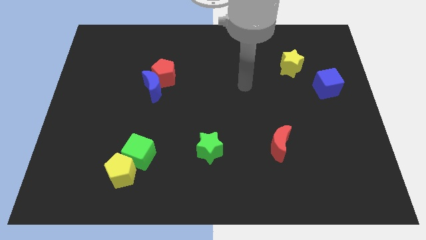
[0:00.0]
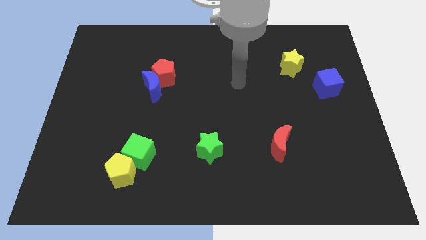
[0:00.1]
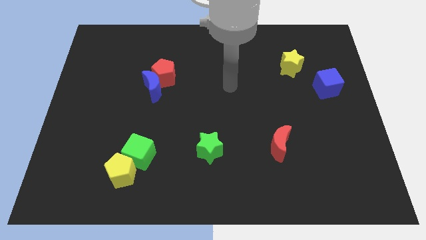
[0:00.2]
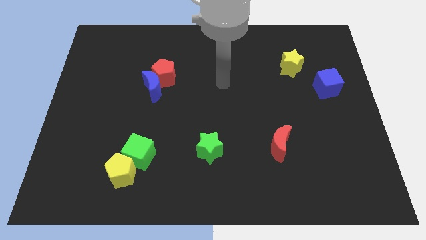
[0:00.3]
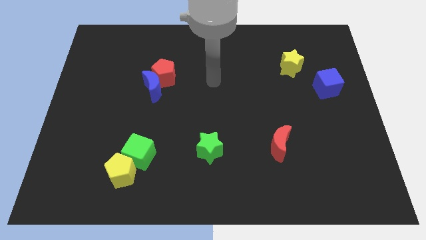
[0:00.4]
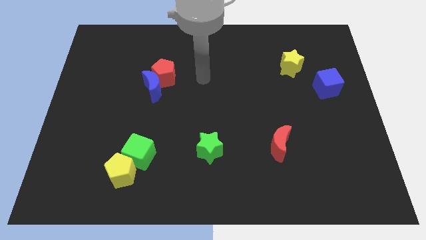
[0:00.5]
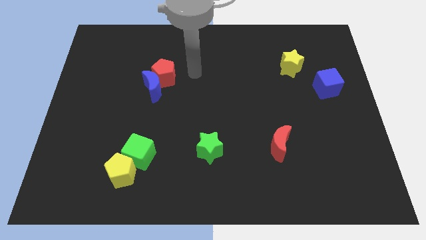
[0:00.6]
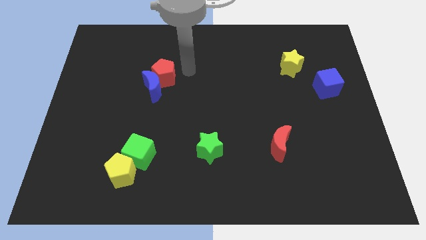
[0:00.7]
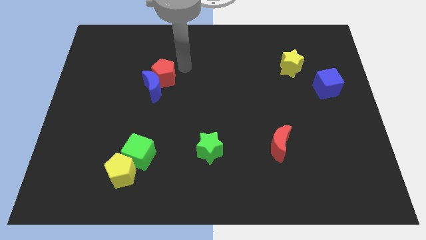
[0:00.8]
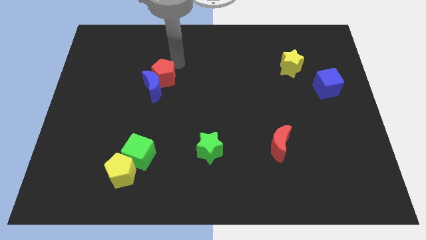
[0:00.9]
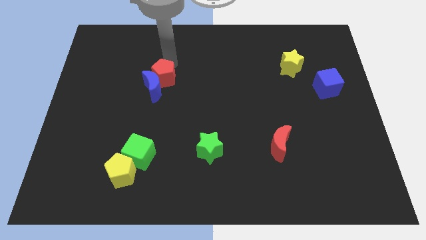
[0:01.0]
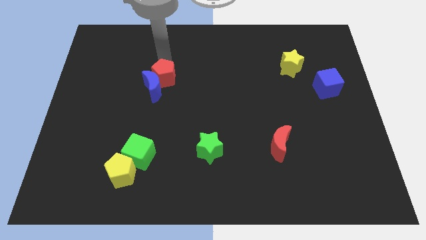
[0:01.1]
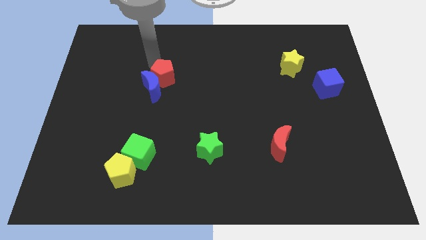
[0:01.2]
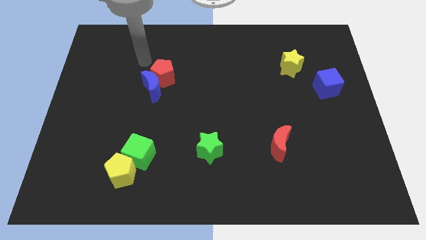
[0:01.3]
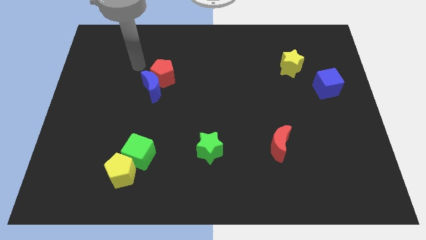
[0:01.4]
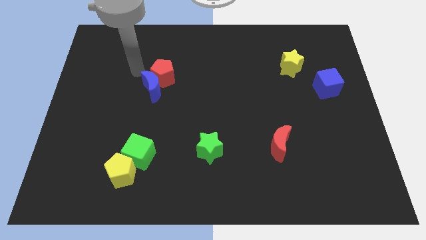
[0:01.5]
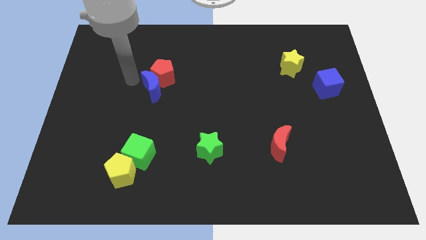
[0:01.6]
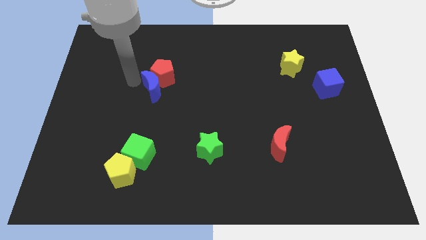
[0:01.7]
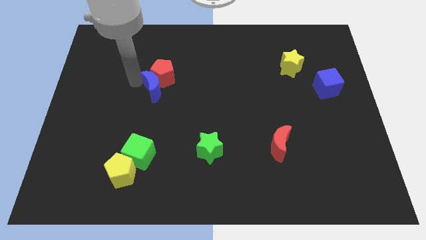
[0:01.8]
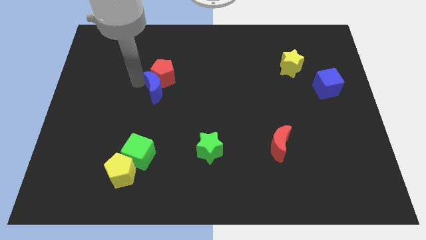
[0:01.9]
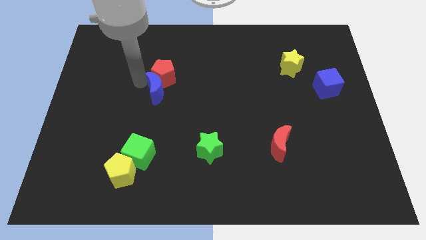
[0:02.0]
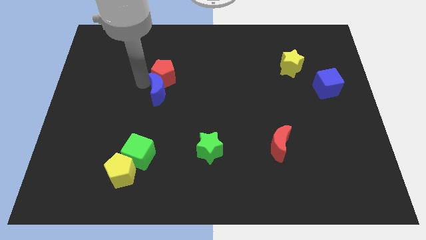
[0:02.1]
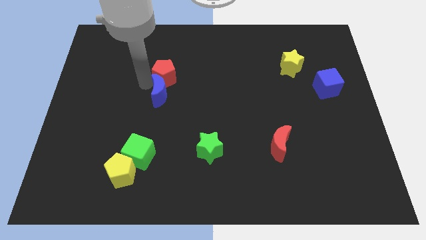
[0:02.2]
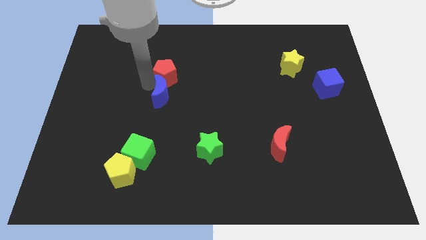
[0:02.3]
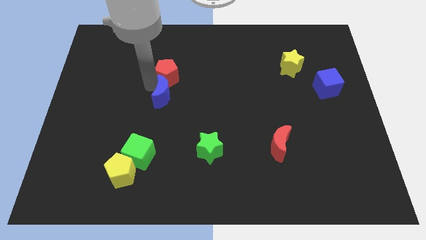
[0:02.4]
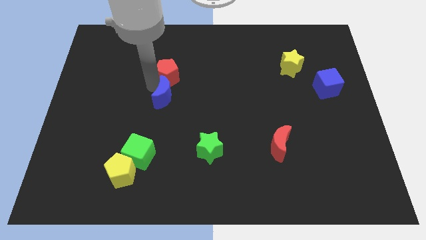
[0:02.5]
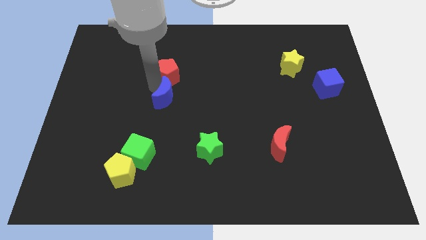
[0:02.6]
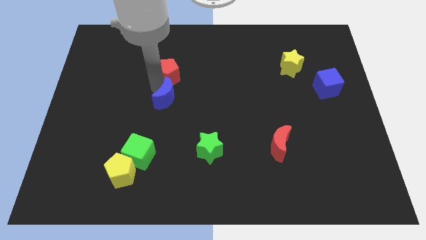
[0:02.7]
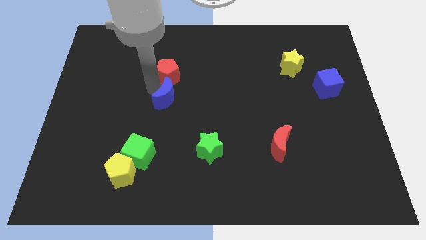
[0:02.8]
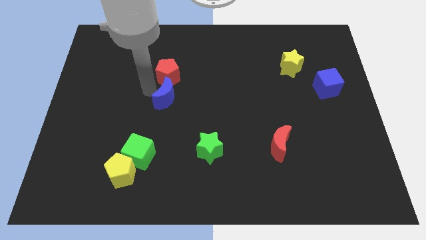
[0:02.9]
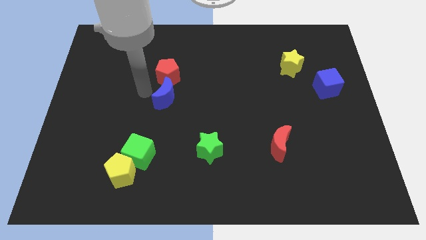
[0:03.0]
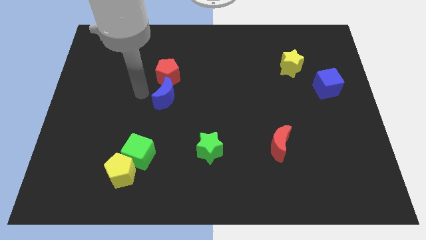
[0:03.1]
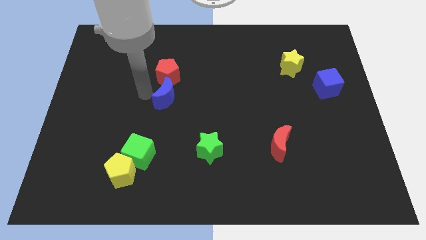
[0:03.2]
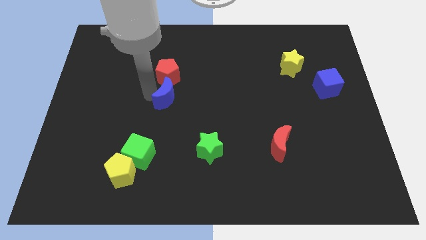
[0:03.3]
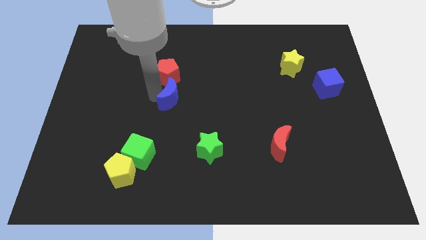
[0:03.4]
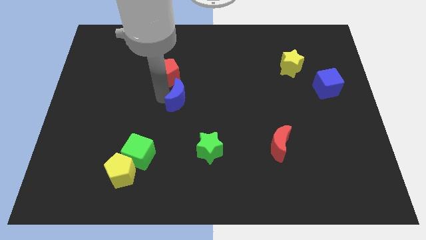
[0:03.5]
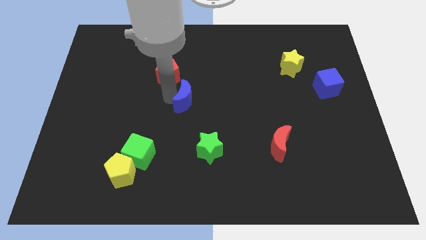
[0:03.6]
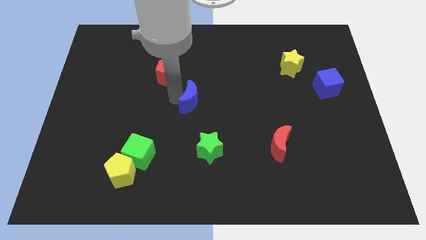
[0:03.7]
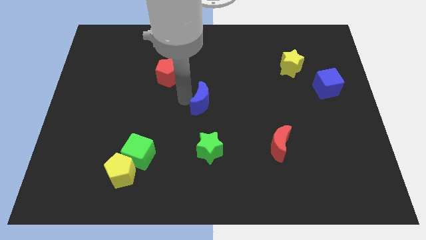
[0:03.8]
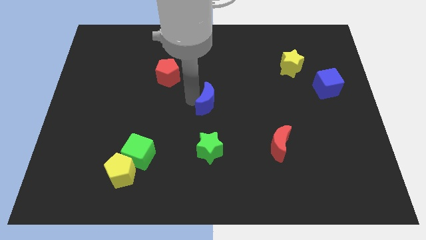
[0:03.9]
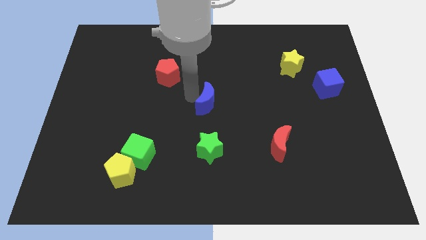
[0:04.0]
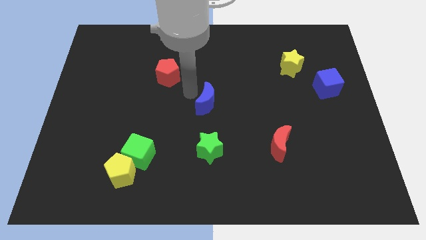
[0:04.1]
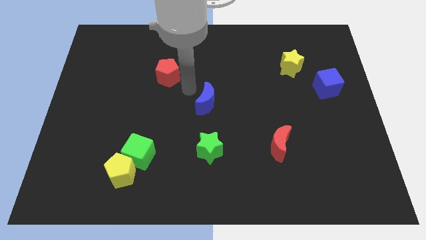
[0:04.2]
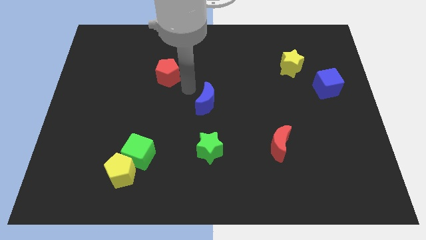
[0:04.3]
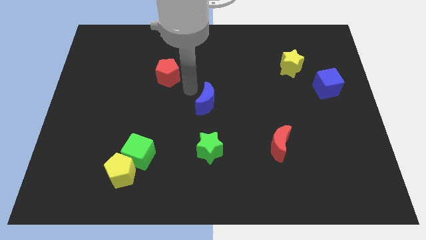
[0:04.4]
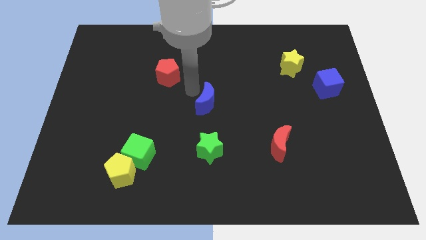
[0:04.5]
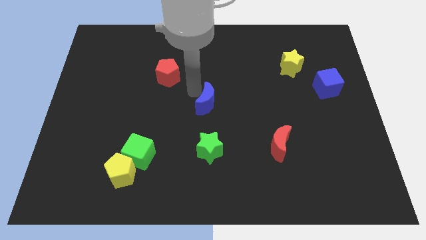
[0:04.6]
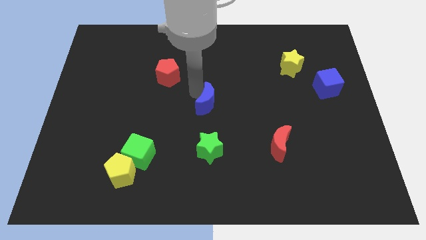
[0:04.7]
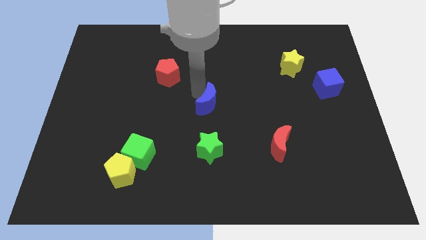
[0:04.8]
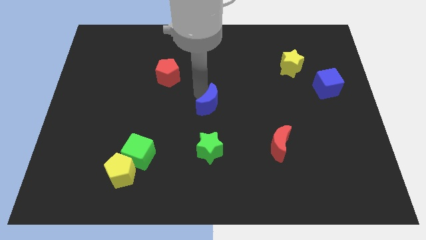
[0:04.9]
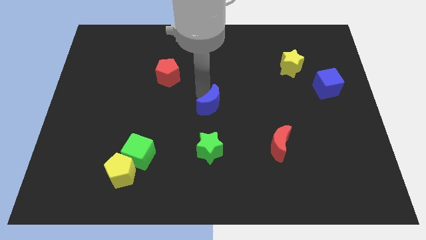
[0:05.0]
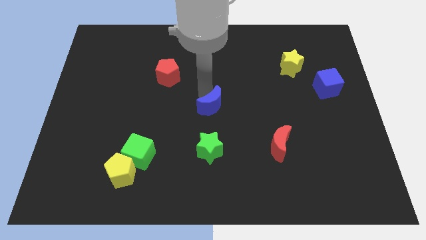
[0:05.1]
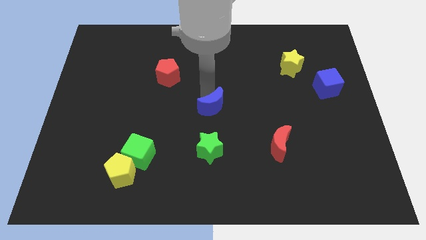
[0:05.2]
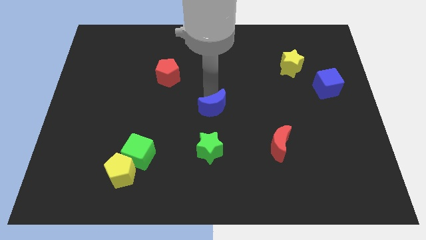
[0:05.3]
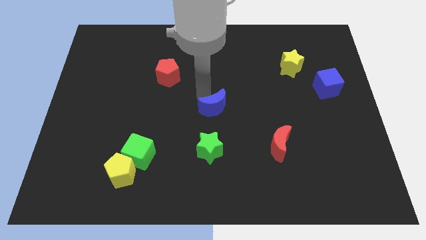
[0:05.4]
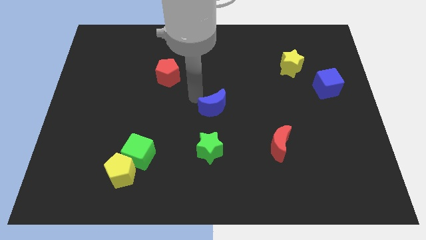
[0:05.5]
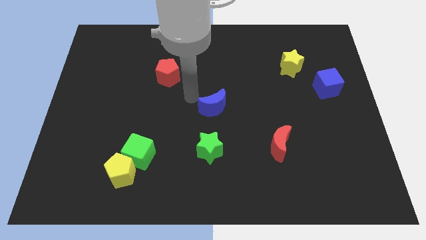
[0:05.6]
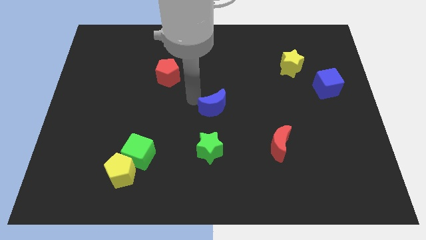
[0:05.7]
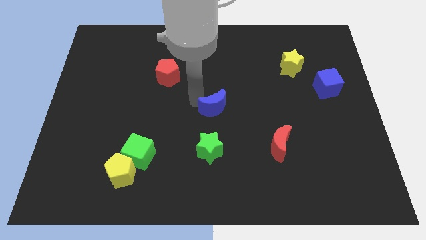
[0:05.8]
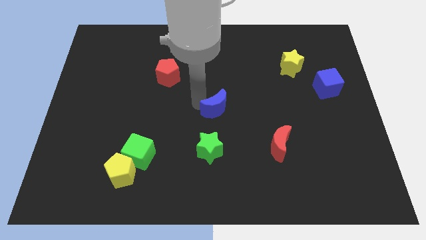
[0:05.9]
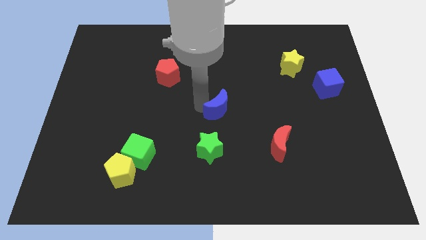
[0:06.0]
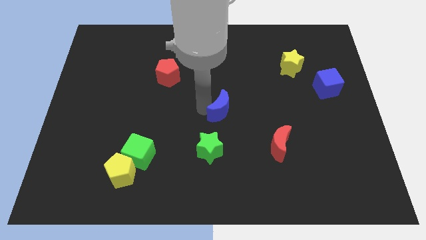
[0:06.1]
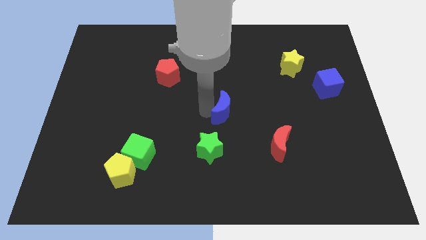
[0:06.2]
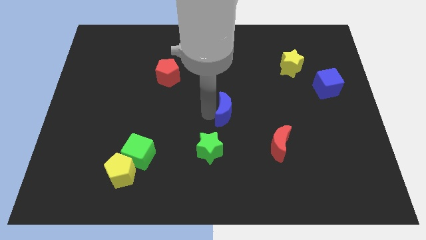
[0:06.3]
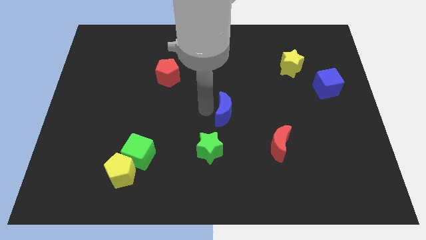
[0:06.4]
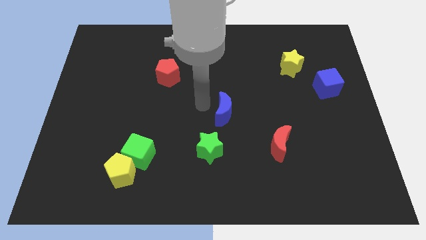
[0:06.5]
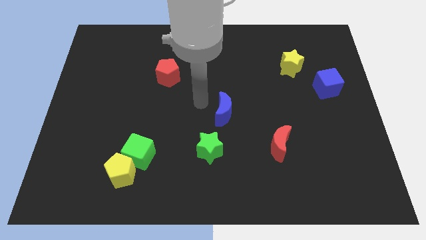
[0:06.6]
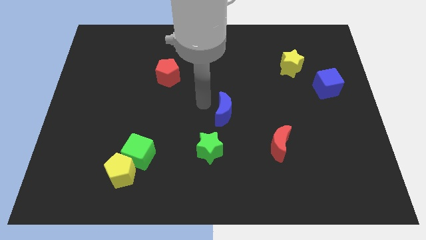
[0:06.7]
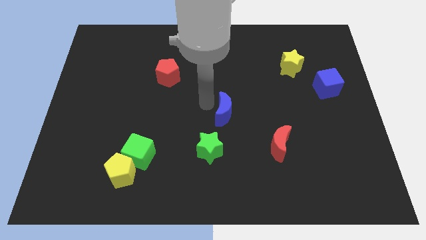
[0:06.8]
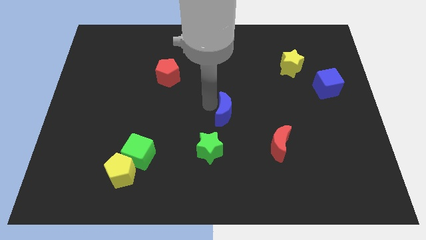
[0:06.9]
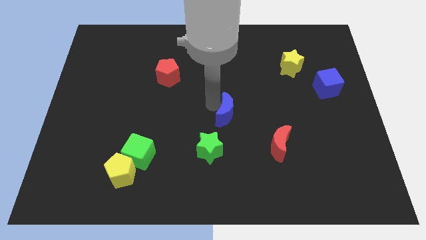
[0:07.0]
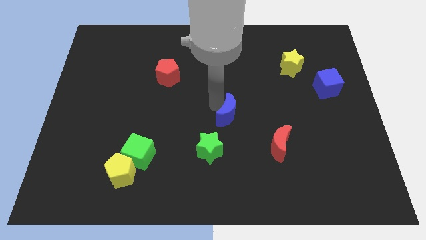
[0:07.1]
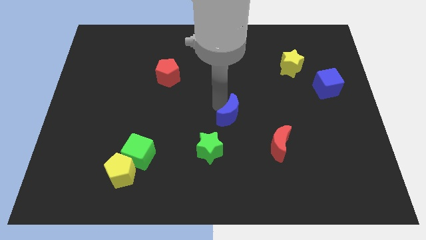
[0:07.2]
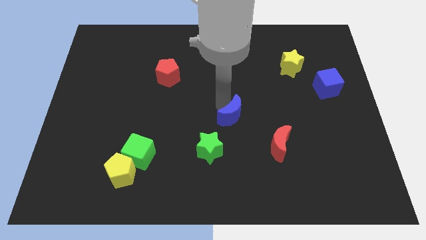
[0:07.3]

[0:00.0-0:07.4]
move the blue moon to the top left of the red moon

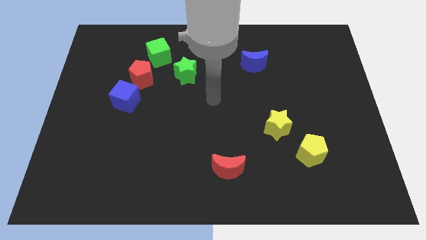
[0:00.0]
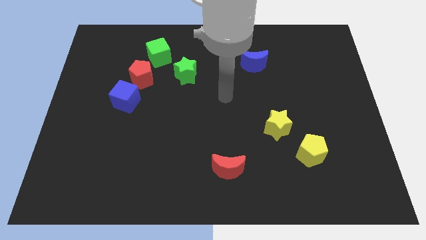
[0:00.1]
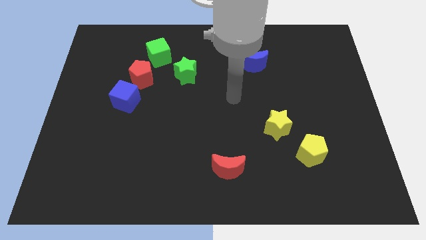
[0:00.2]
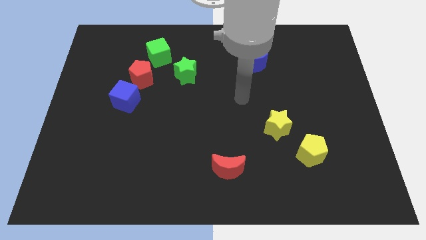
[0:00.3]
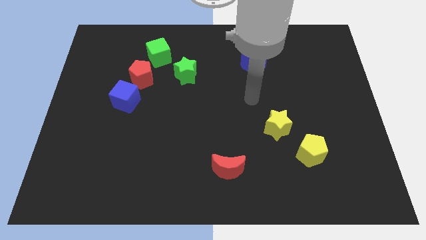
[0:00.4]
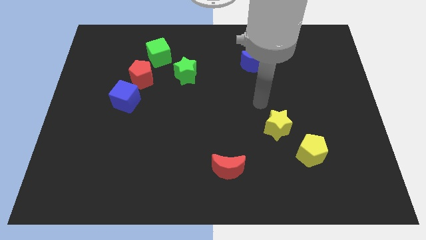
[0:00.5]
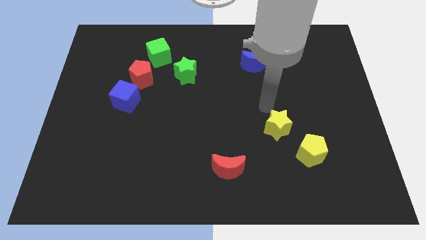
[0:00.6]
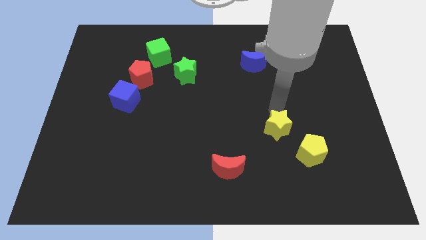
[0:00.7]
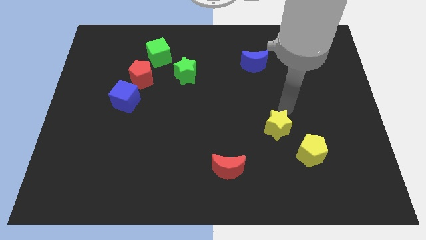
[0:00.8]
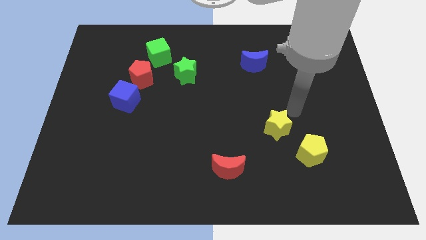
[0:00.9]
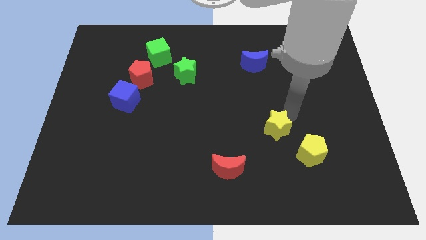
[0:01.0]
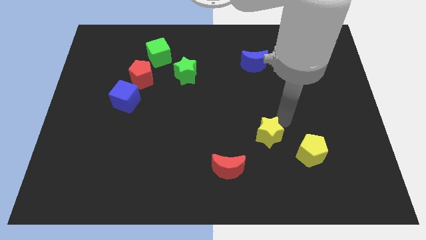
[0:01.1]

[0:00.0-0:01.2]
slide the yellow star to the top right of the red moon
